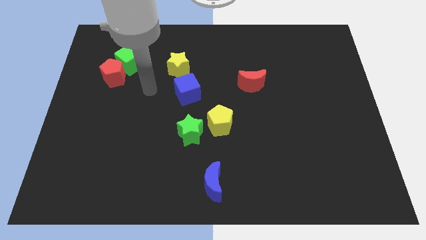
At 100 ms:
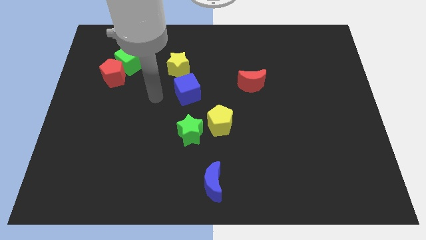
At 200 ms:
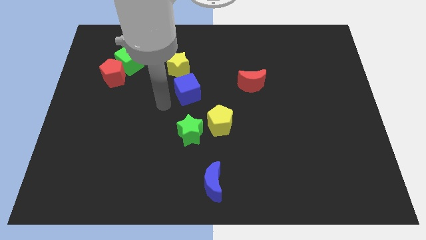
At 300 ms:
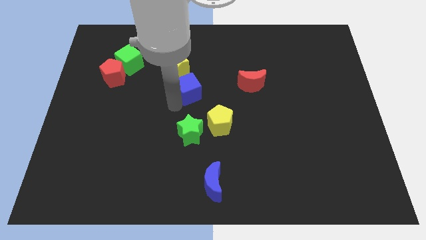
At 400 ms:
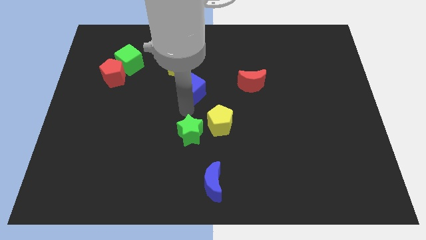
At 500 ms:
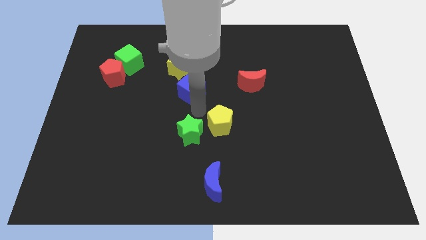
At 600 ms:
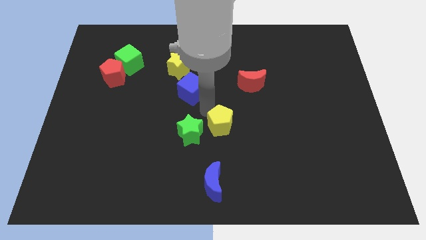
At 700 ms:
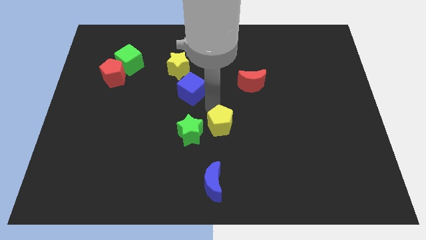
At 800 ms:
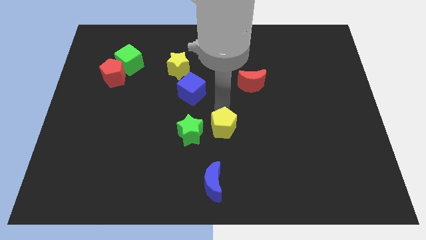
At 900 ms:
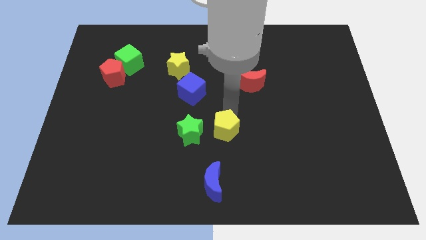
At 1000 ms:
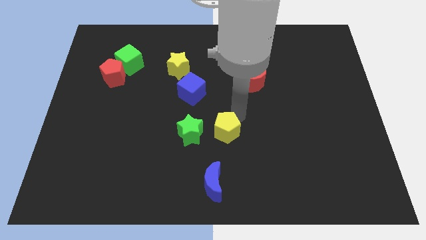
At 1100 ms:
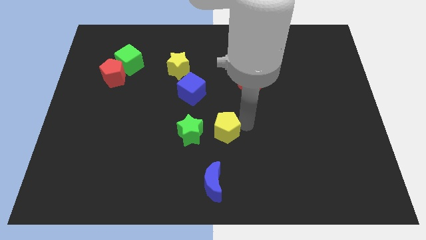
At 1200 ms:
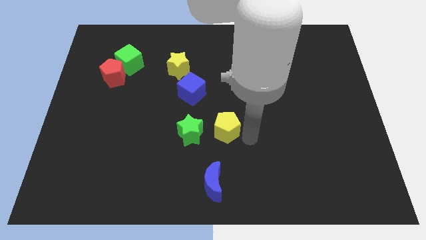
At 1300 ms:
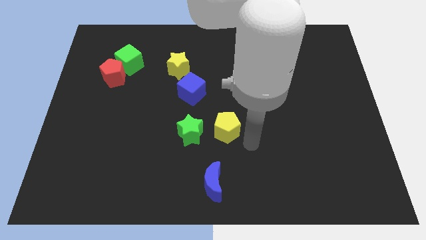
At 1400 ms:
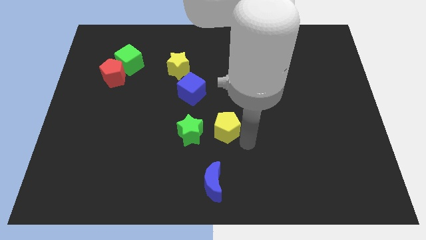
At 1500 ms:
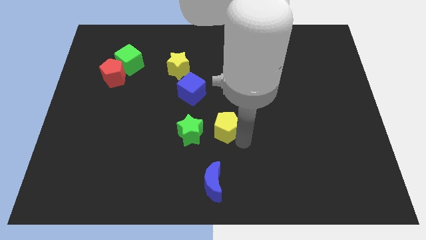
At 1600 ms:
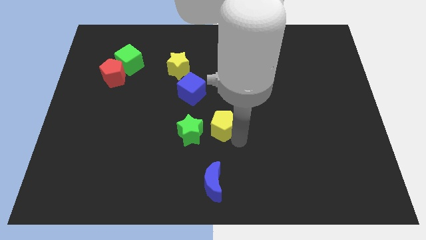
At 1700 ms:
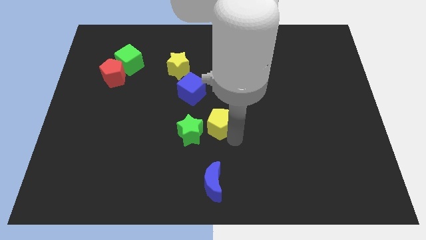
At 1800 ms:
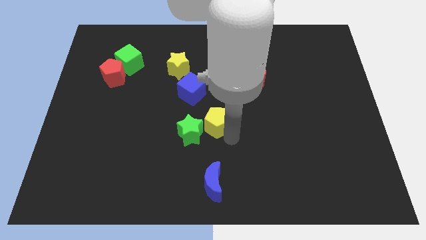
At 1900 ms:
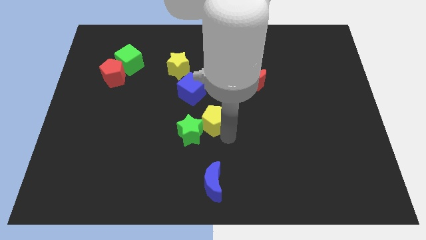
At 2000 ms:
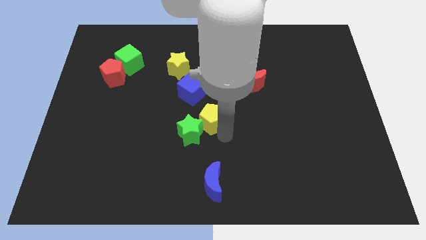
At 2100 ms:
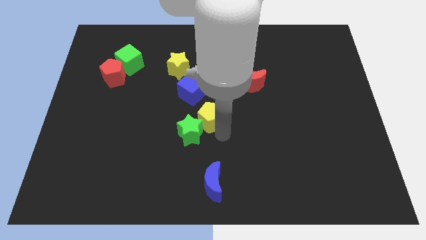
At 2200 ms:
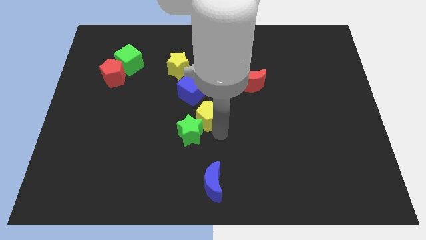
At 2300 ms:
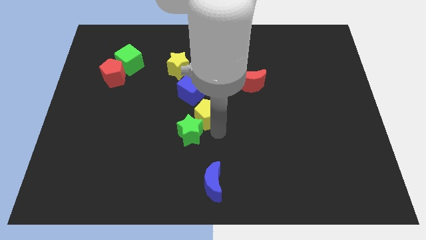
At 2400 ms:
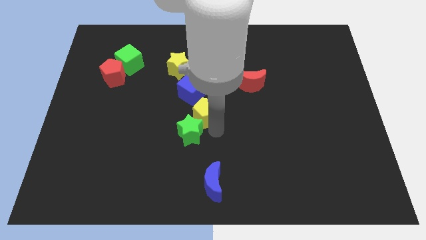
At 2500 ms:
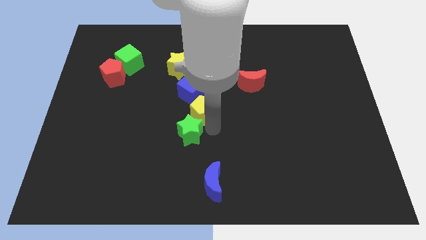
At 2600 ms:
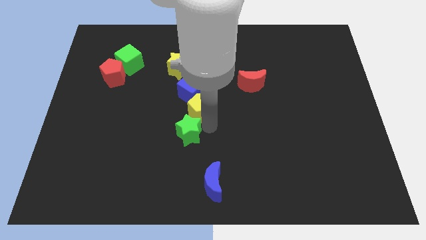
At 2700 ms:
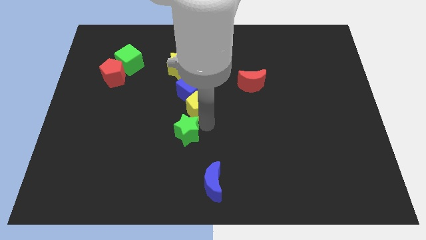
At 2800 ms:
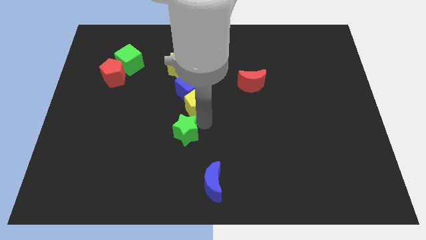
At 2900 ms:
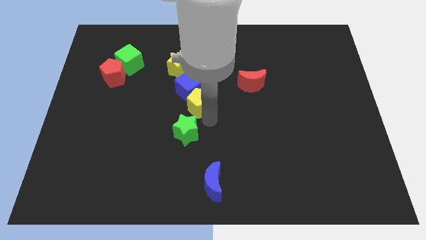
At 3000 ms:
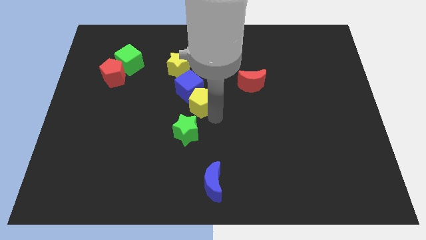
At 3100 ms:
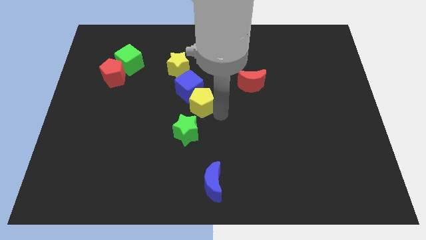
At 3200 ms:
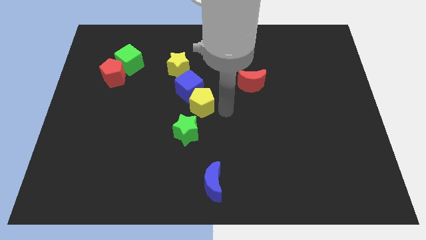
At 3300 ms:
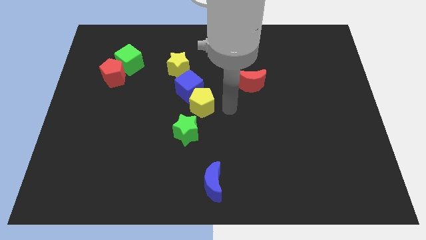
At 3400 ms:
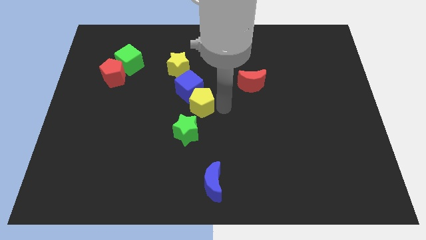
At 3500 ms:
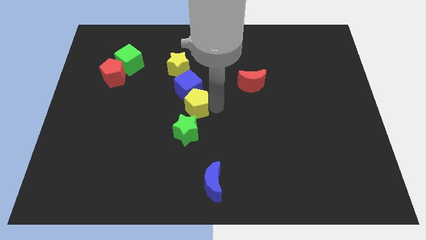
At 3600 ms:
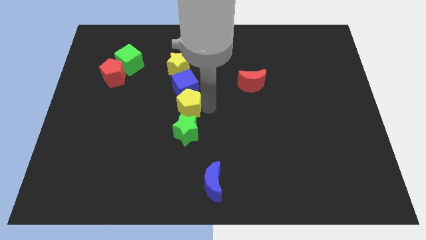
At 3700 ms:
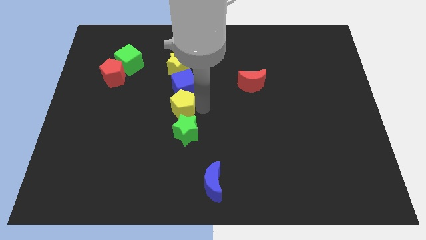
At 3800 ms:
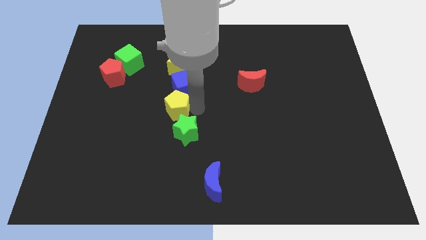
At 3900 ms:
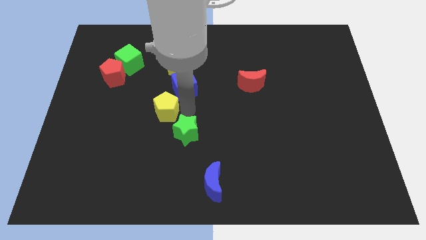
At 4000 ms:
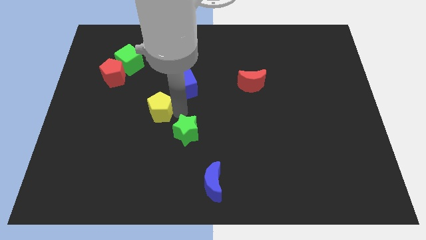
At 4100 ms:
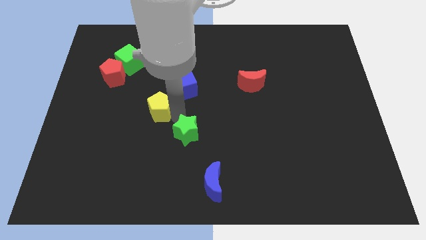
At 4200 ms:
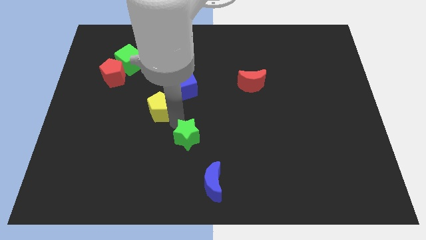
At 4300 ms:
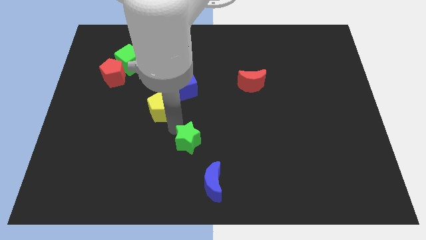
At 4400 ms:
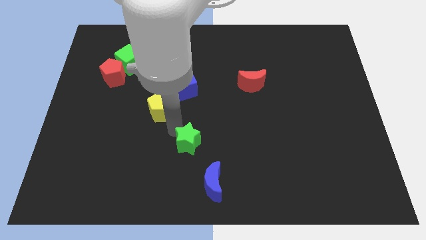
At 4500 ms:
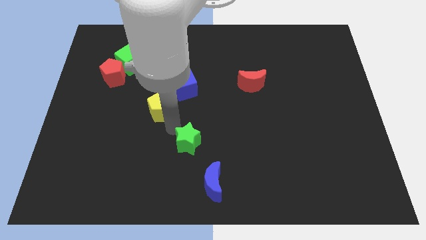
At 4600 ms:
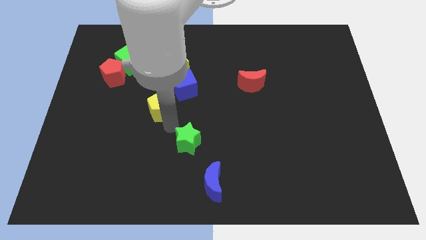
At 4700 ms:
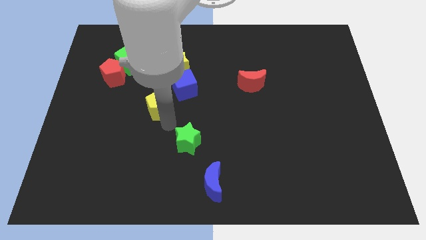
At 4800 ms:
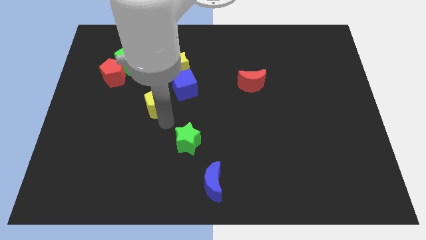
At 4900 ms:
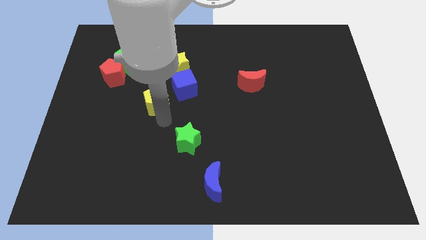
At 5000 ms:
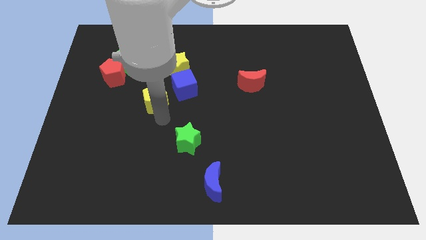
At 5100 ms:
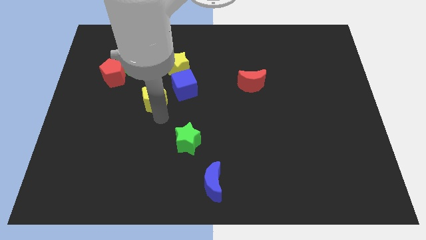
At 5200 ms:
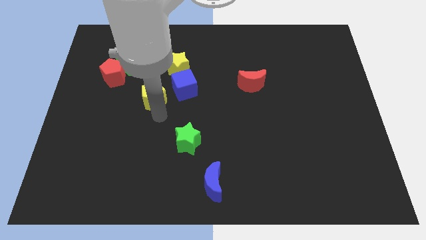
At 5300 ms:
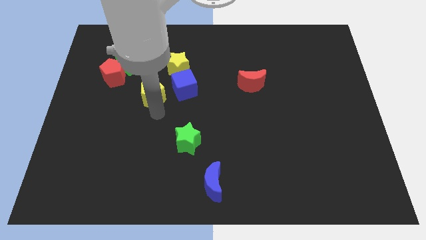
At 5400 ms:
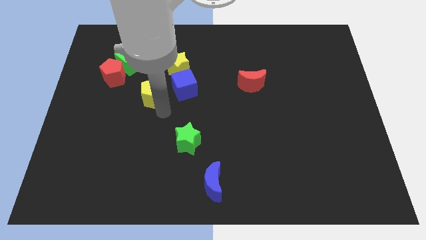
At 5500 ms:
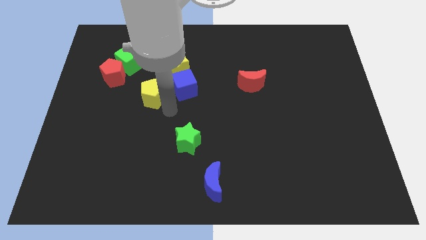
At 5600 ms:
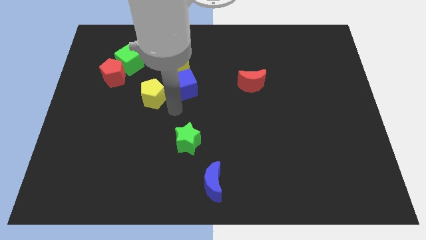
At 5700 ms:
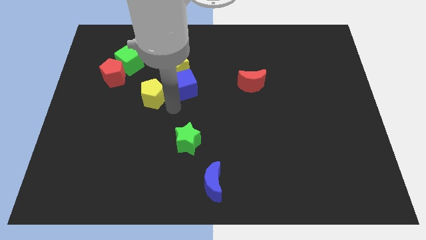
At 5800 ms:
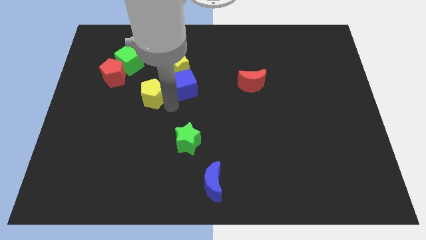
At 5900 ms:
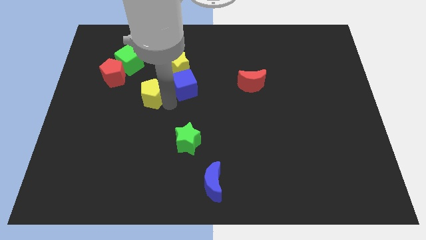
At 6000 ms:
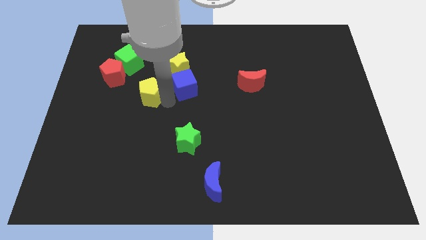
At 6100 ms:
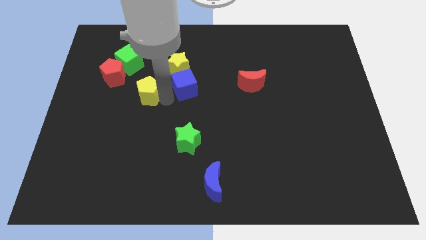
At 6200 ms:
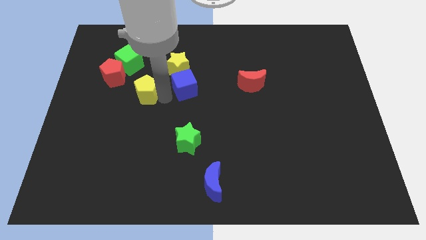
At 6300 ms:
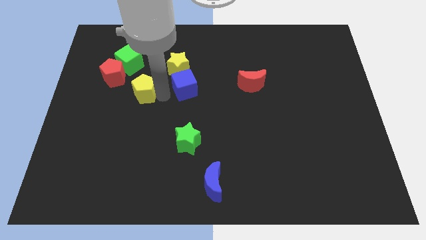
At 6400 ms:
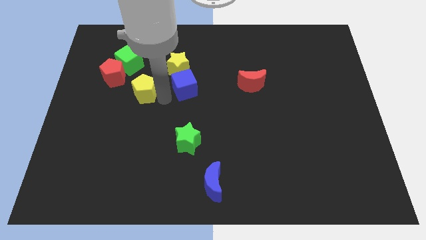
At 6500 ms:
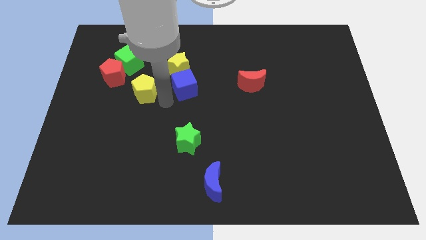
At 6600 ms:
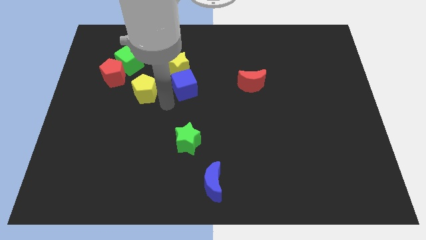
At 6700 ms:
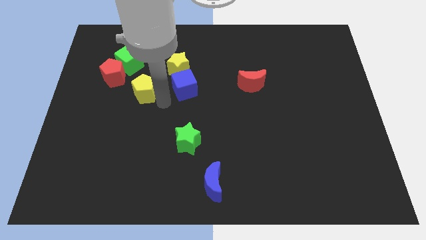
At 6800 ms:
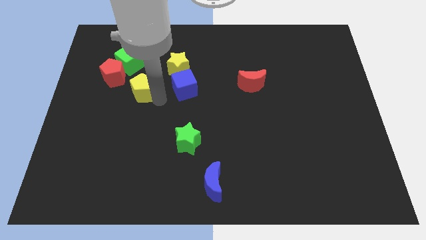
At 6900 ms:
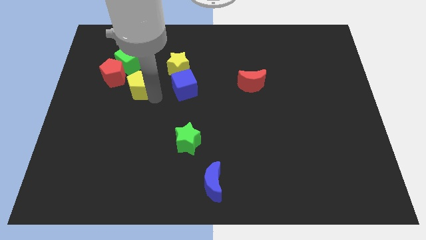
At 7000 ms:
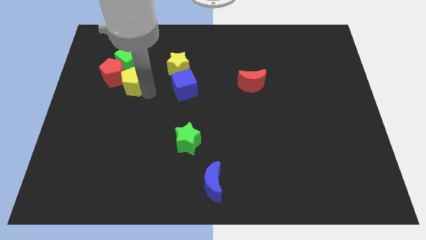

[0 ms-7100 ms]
move the yellow pentagon next to the red pentagon

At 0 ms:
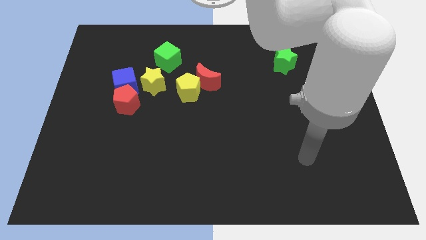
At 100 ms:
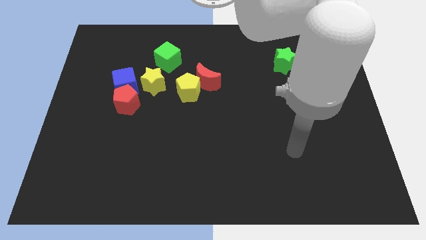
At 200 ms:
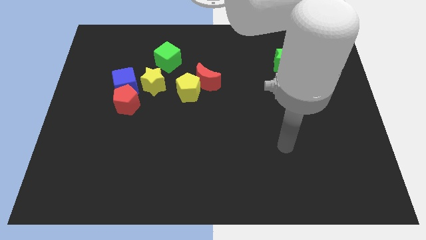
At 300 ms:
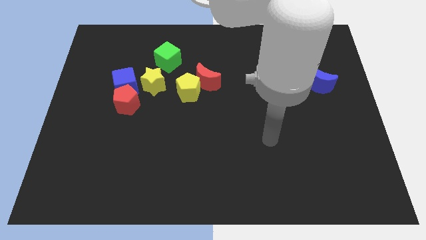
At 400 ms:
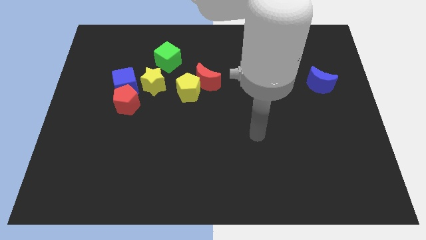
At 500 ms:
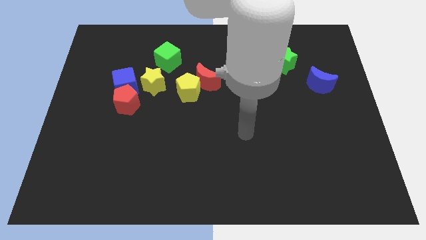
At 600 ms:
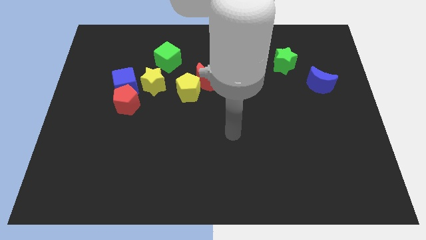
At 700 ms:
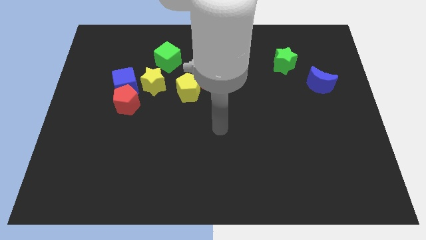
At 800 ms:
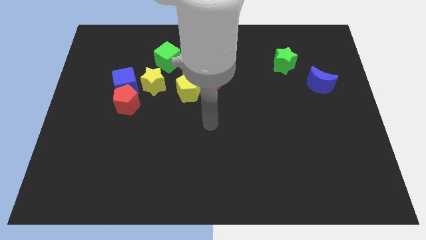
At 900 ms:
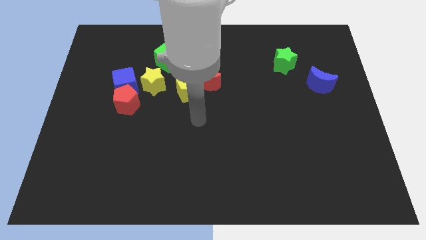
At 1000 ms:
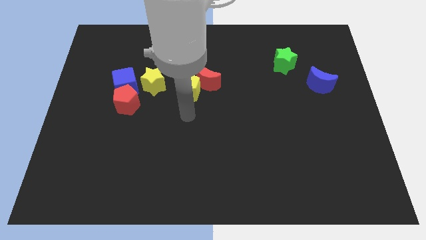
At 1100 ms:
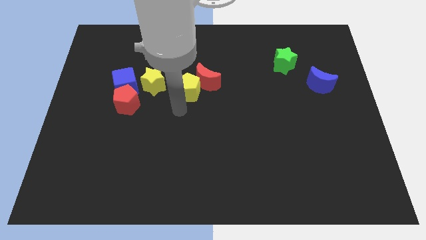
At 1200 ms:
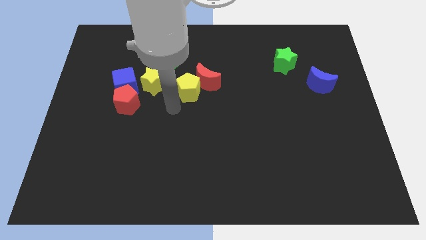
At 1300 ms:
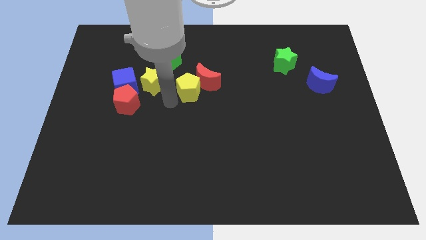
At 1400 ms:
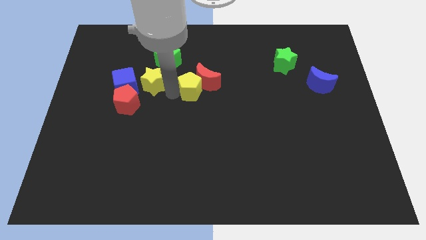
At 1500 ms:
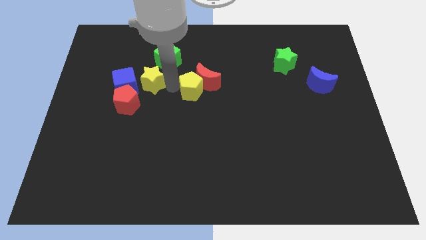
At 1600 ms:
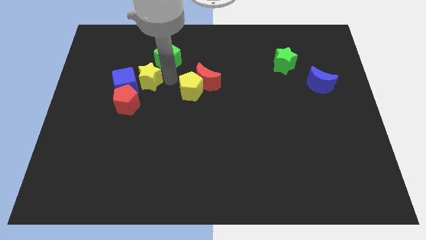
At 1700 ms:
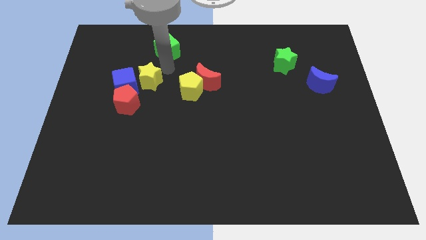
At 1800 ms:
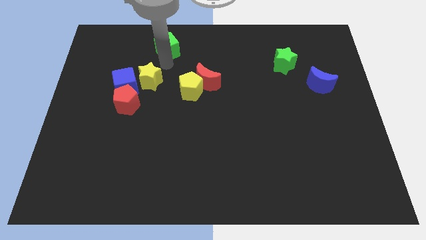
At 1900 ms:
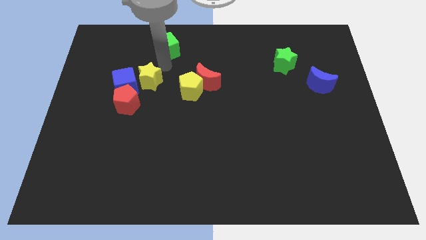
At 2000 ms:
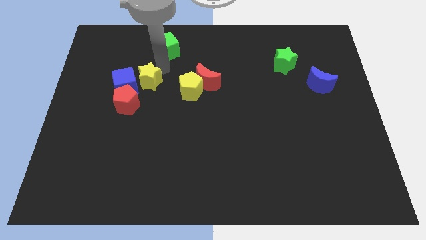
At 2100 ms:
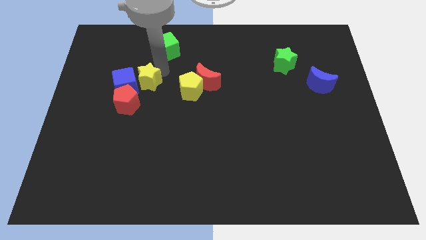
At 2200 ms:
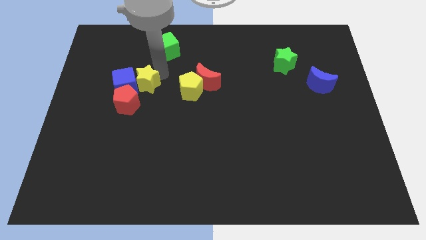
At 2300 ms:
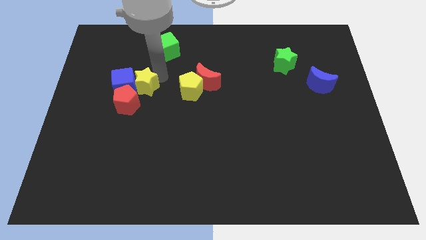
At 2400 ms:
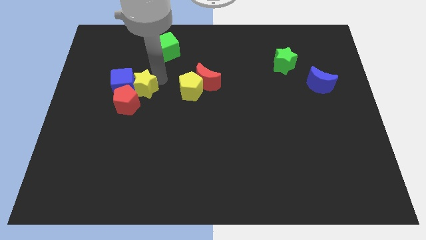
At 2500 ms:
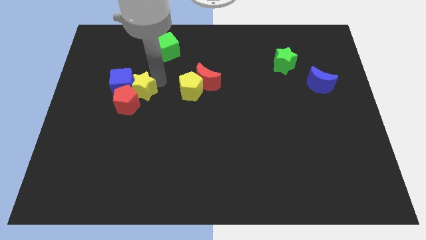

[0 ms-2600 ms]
push the yellow star towards the red pentagon
